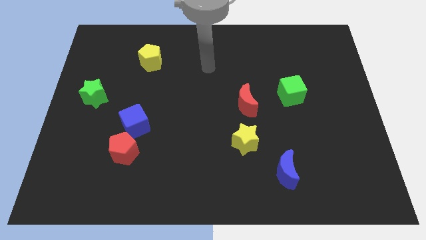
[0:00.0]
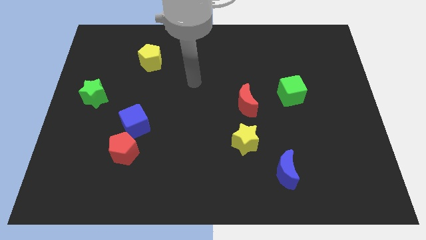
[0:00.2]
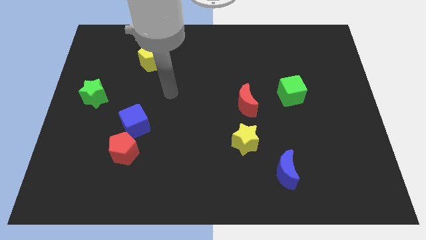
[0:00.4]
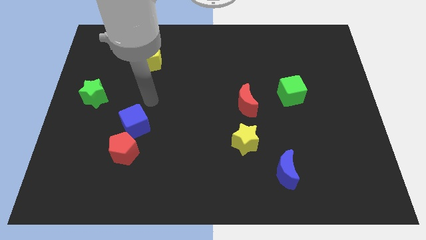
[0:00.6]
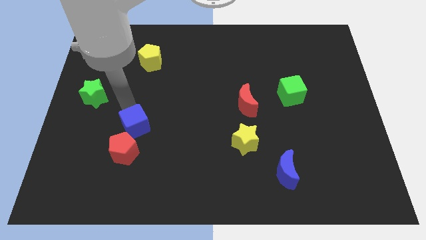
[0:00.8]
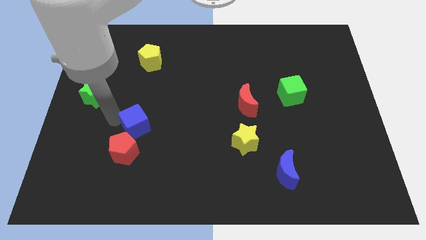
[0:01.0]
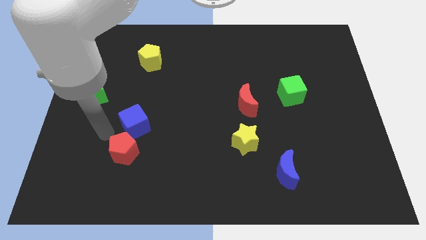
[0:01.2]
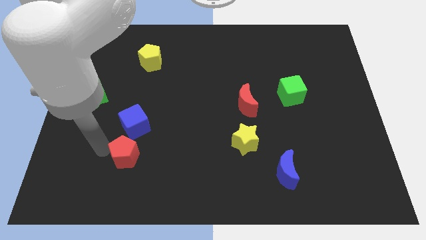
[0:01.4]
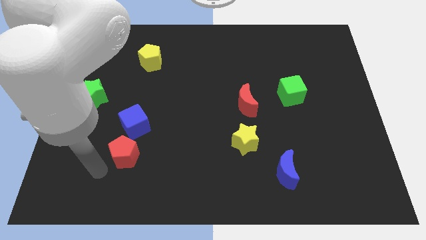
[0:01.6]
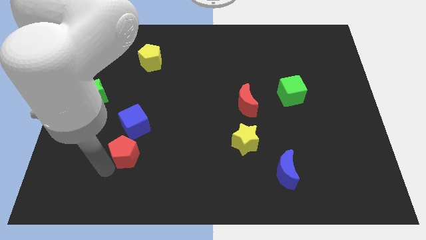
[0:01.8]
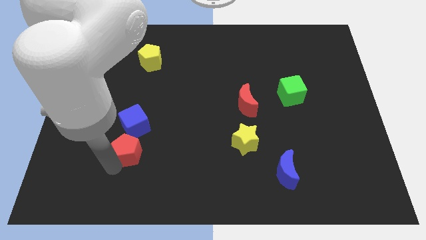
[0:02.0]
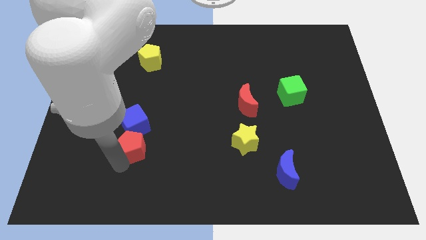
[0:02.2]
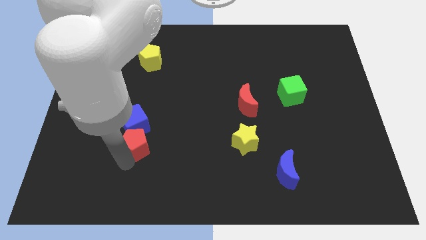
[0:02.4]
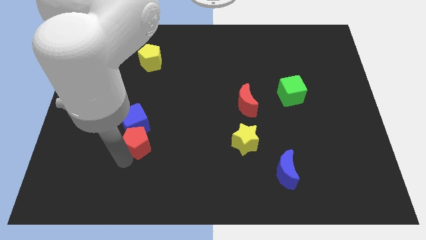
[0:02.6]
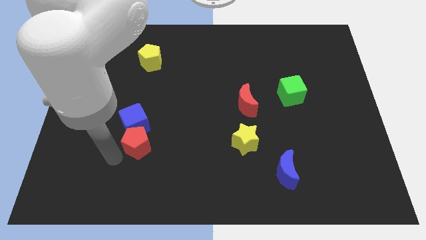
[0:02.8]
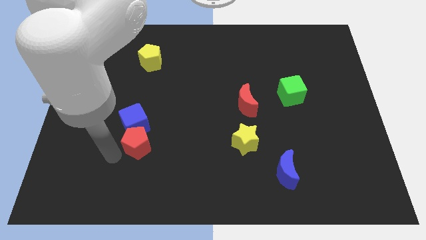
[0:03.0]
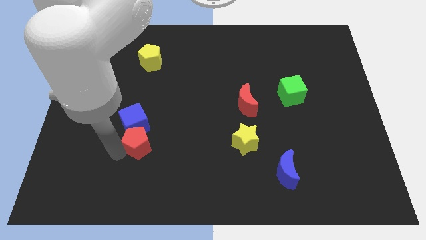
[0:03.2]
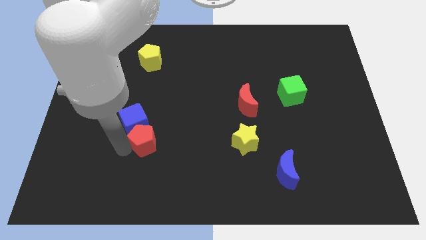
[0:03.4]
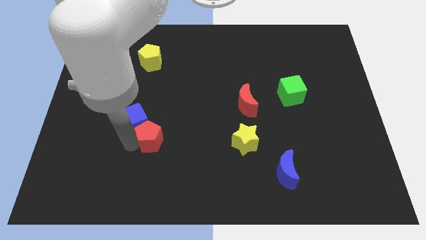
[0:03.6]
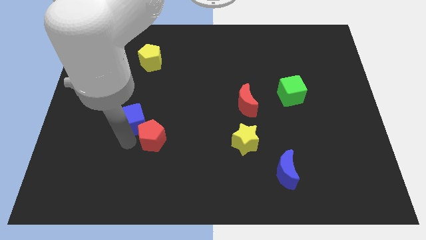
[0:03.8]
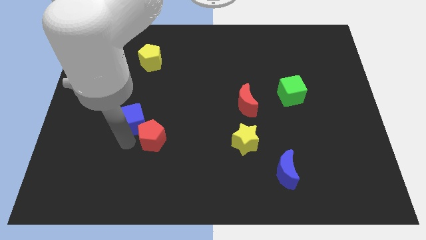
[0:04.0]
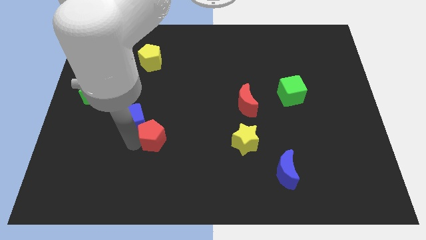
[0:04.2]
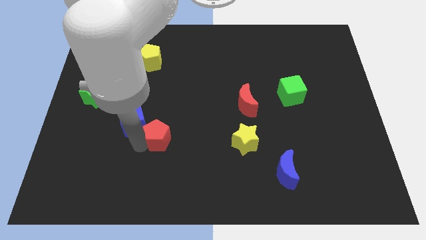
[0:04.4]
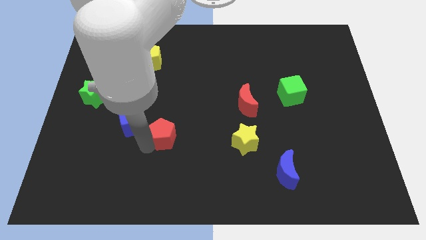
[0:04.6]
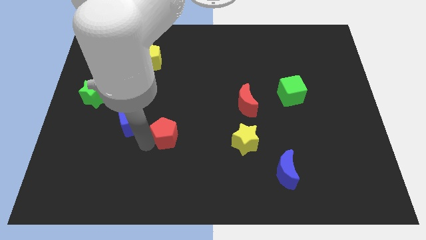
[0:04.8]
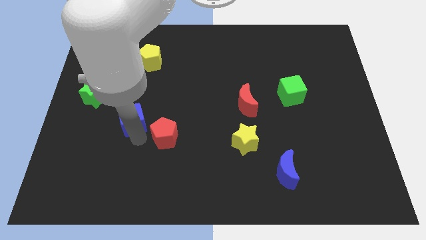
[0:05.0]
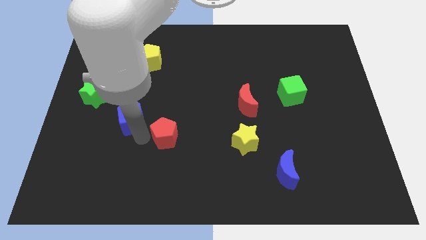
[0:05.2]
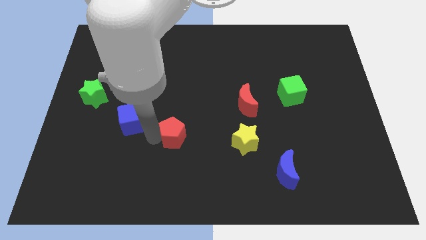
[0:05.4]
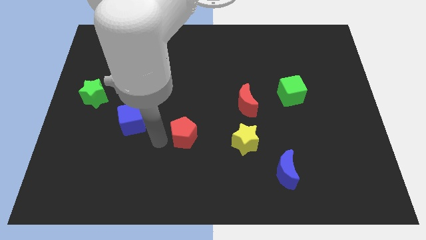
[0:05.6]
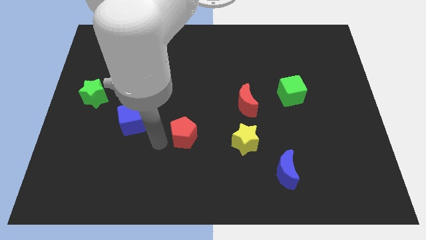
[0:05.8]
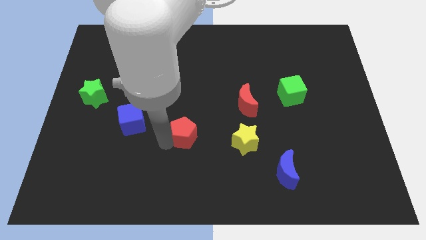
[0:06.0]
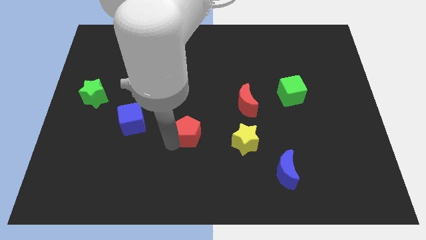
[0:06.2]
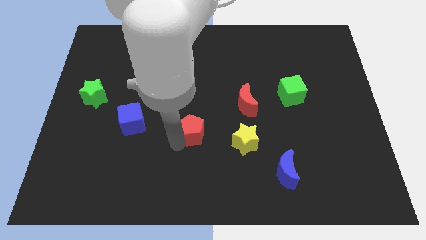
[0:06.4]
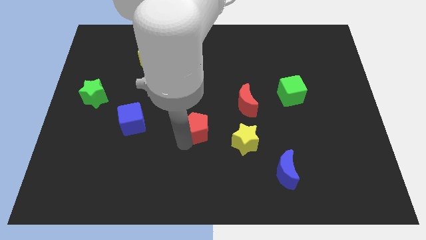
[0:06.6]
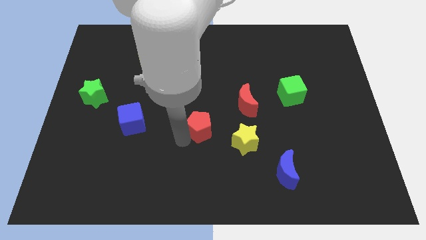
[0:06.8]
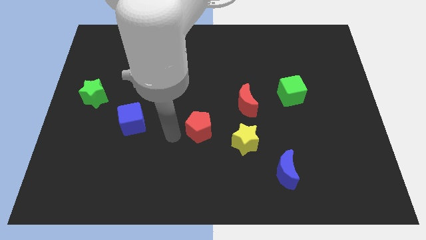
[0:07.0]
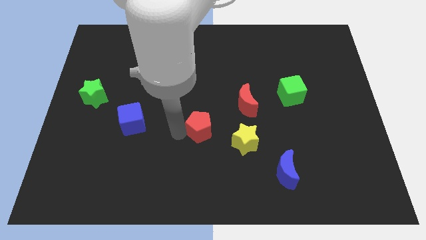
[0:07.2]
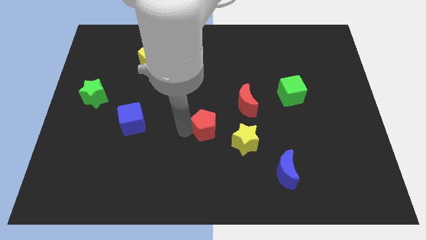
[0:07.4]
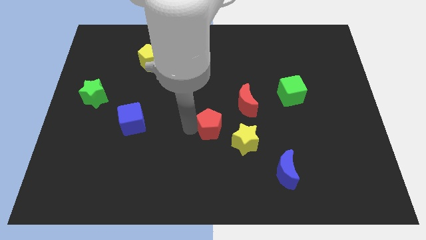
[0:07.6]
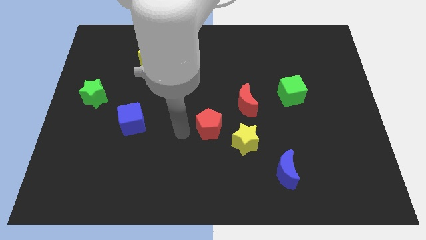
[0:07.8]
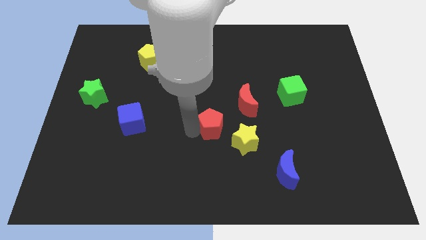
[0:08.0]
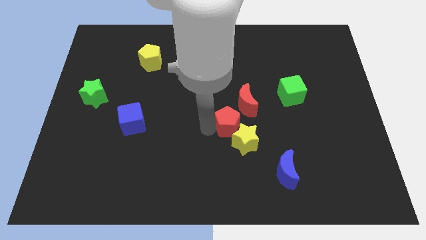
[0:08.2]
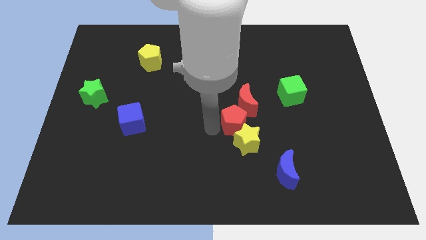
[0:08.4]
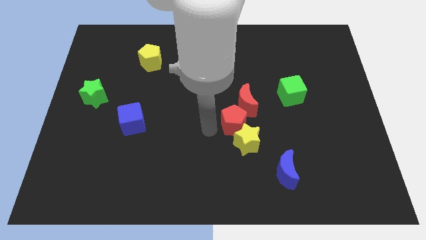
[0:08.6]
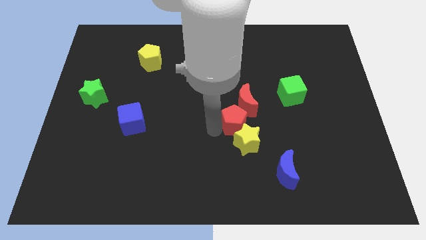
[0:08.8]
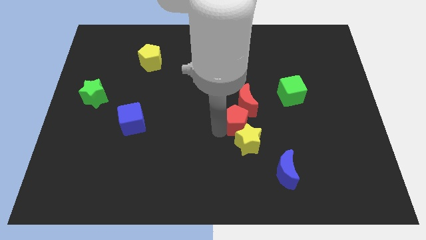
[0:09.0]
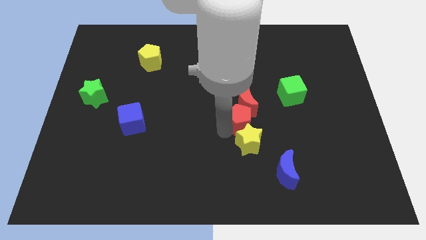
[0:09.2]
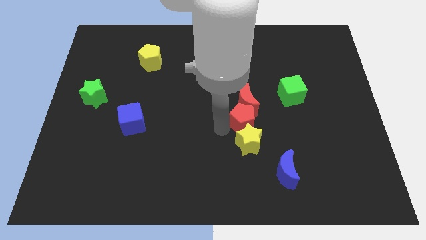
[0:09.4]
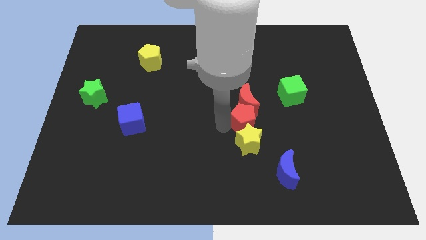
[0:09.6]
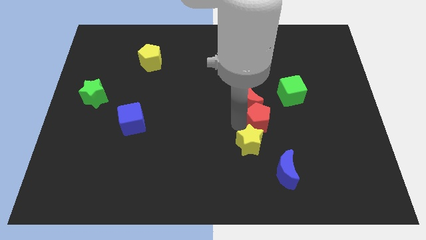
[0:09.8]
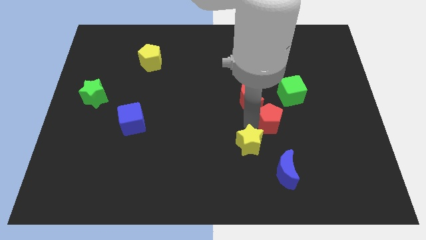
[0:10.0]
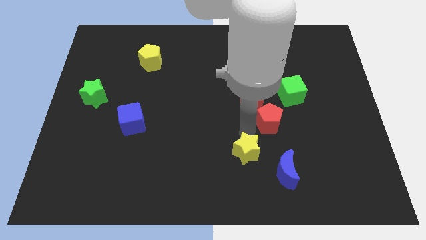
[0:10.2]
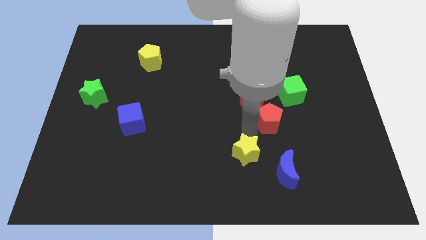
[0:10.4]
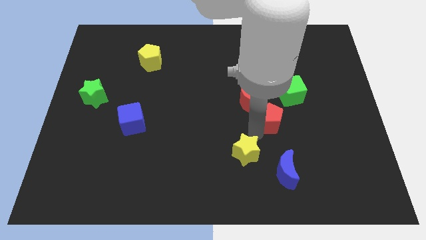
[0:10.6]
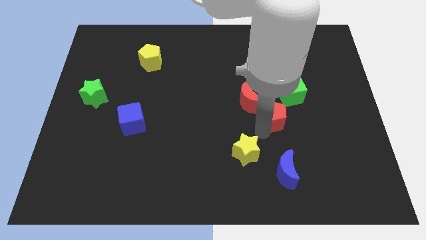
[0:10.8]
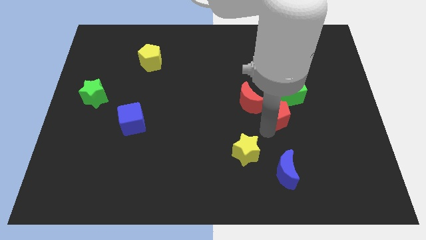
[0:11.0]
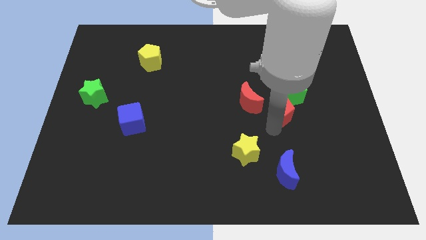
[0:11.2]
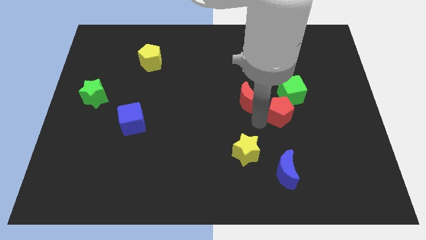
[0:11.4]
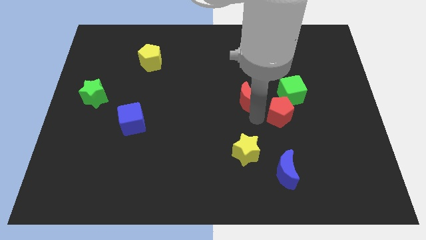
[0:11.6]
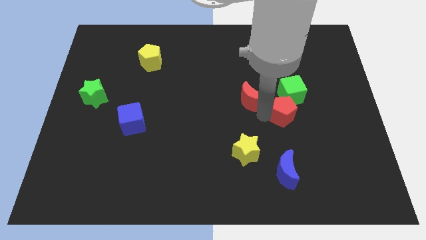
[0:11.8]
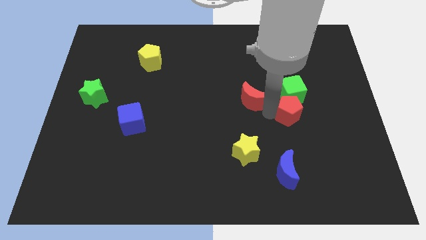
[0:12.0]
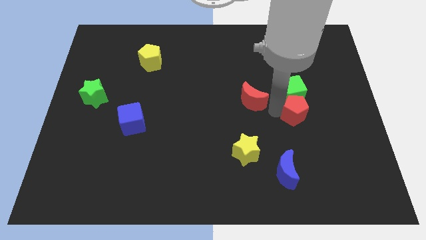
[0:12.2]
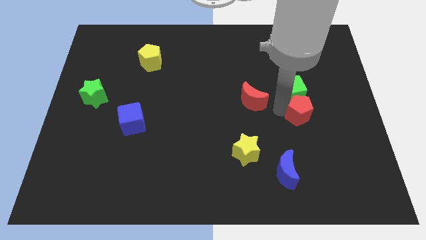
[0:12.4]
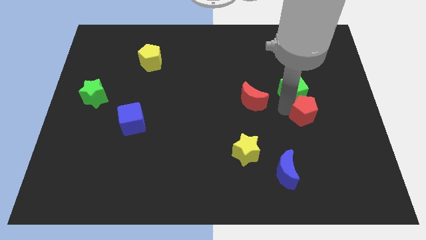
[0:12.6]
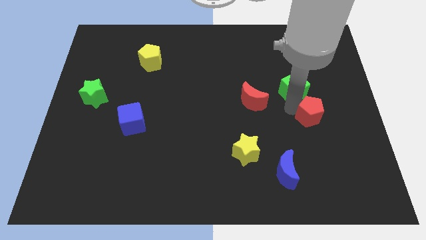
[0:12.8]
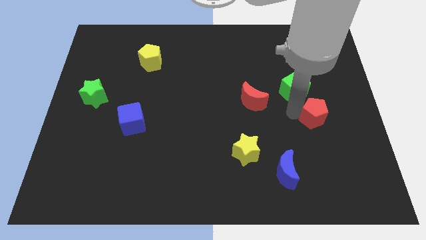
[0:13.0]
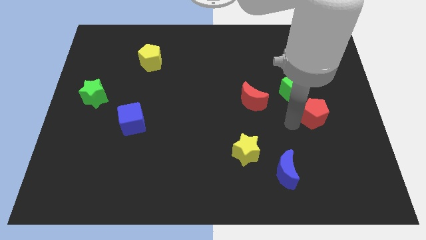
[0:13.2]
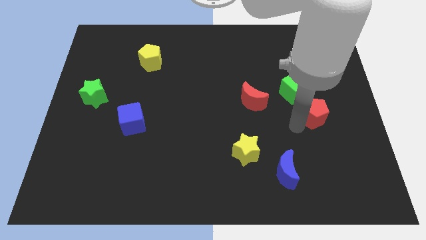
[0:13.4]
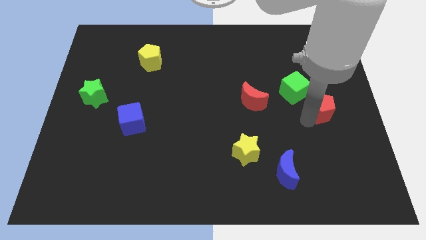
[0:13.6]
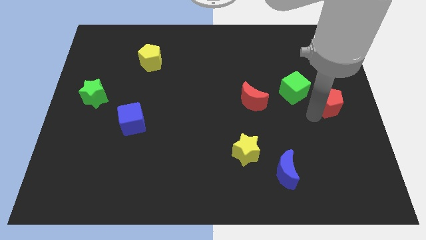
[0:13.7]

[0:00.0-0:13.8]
put the red pentagon to the right side of the board
